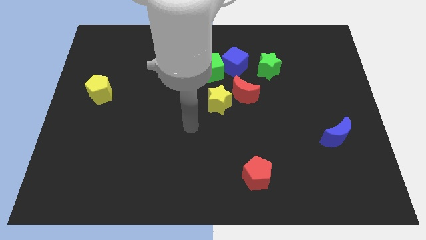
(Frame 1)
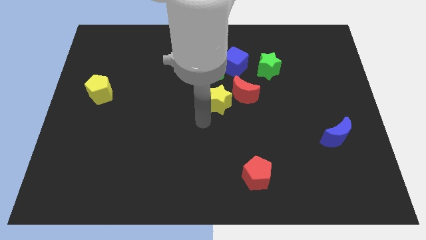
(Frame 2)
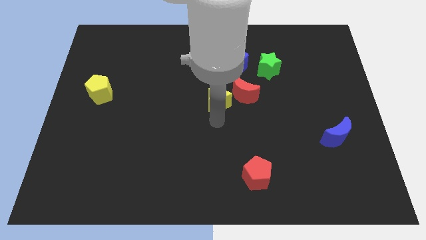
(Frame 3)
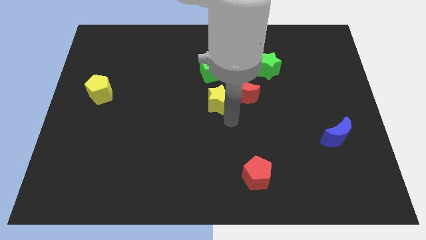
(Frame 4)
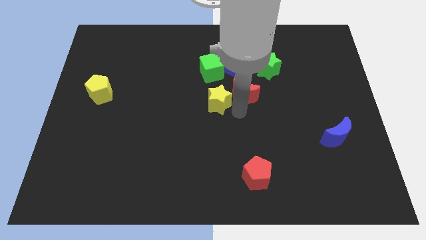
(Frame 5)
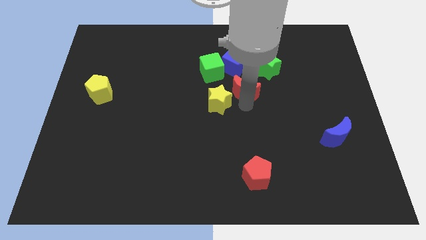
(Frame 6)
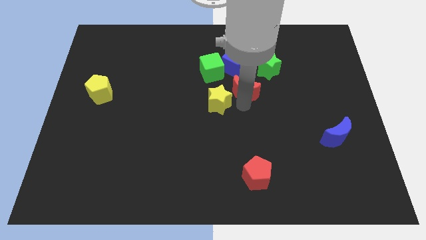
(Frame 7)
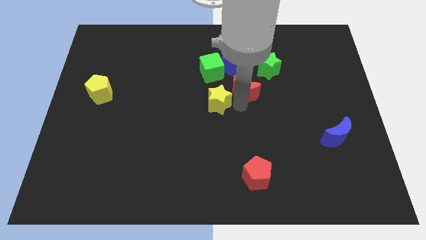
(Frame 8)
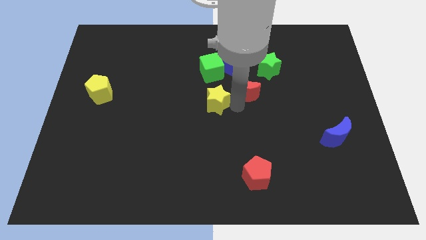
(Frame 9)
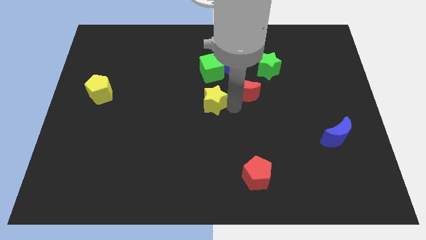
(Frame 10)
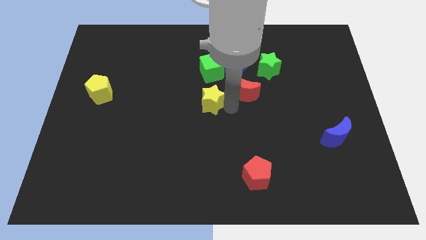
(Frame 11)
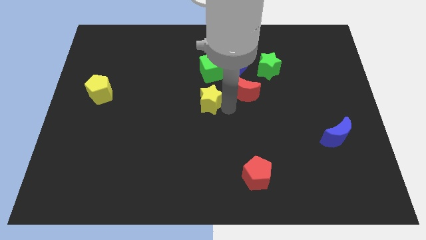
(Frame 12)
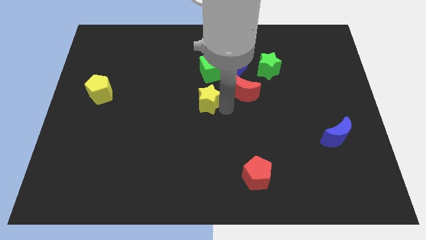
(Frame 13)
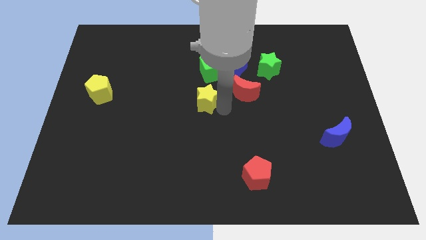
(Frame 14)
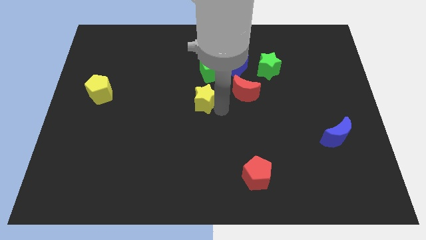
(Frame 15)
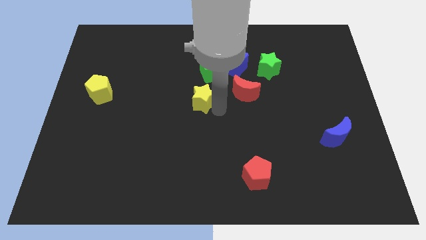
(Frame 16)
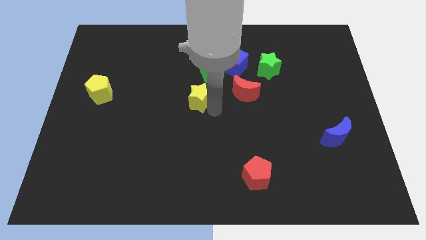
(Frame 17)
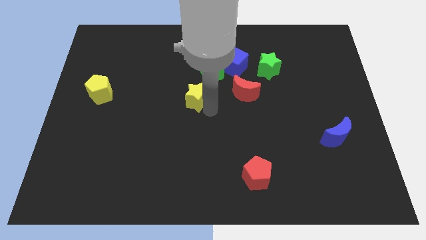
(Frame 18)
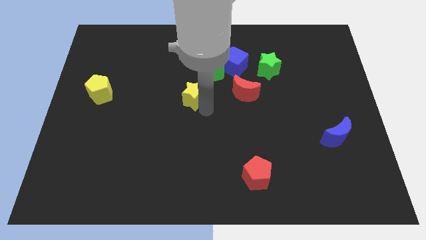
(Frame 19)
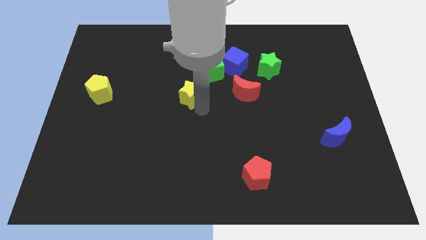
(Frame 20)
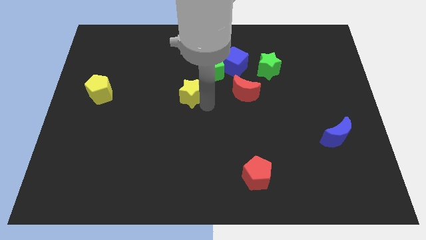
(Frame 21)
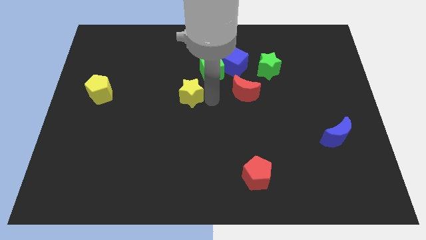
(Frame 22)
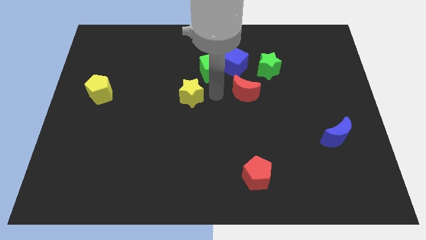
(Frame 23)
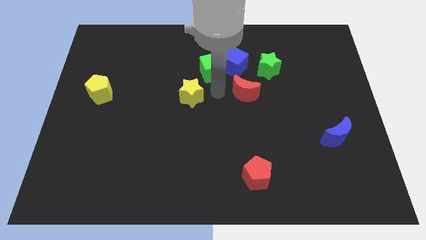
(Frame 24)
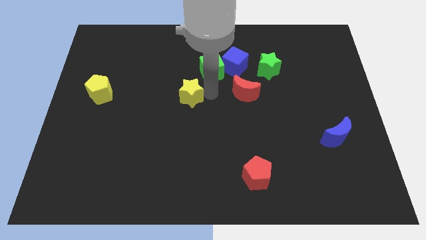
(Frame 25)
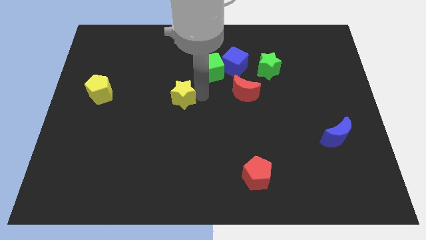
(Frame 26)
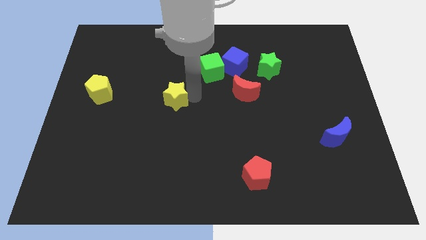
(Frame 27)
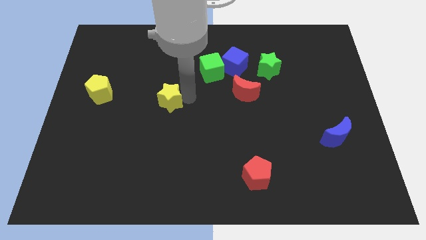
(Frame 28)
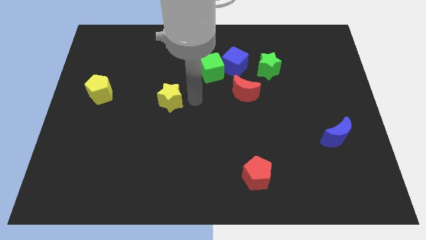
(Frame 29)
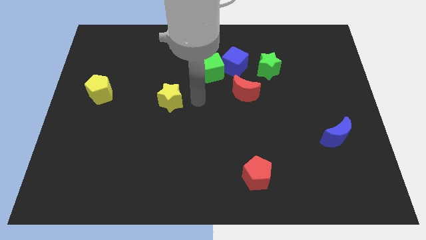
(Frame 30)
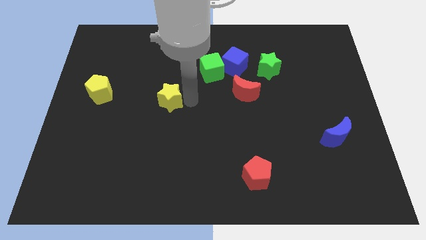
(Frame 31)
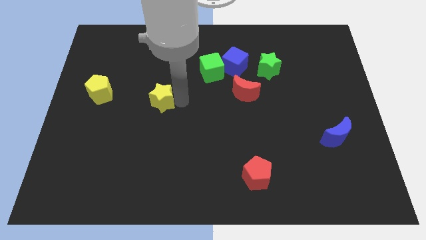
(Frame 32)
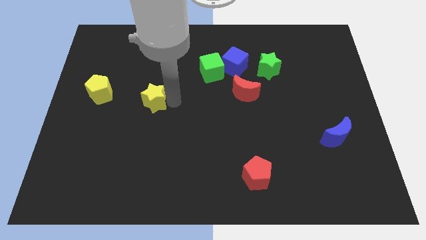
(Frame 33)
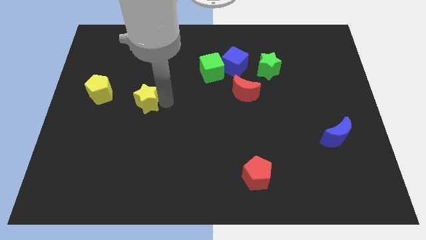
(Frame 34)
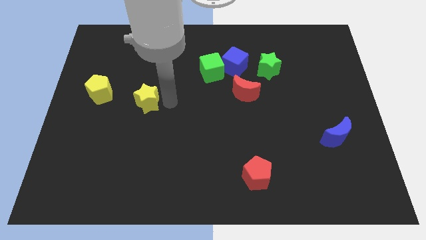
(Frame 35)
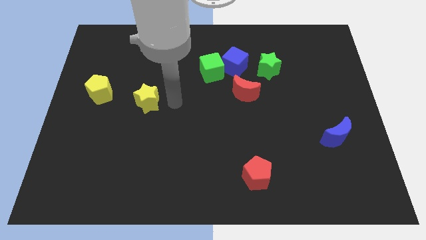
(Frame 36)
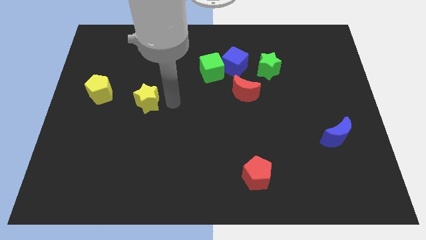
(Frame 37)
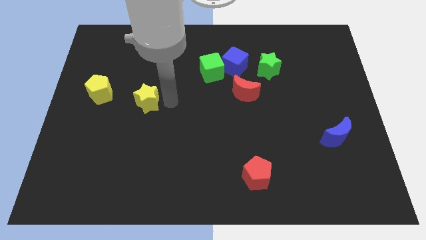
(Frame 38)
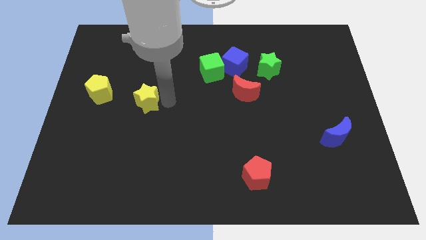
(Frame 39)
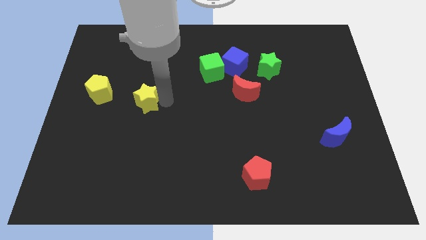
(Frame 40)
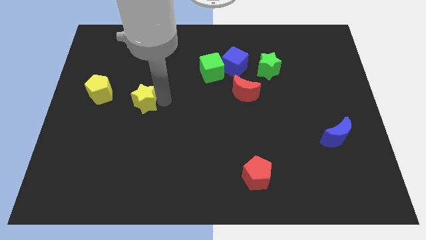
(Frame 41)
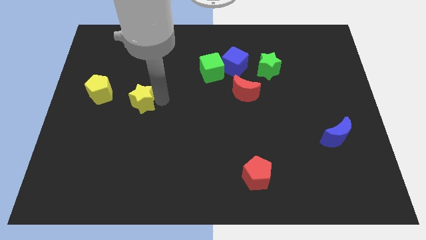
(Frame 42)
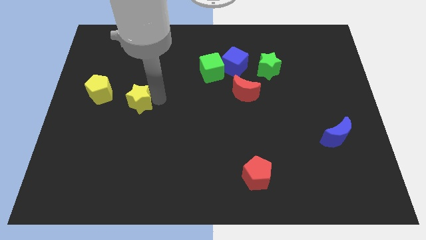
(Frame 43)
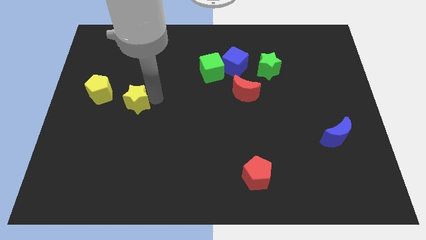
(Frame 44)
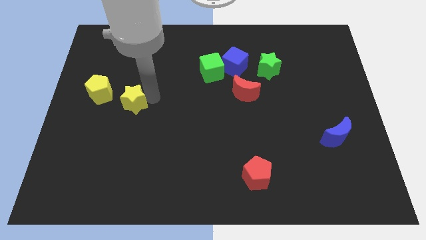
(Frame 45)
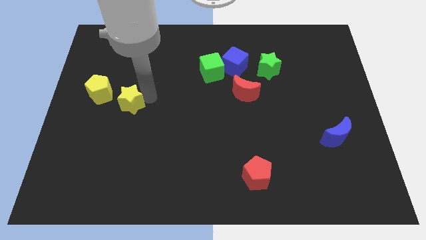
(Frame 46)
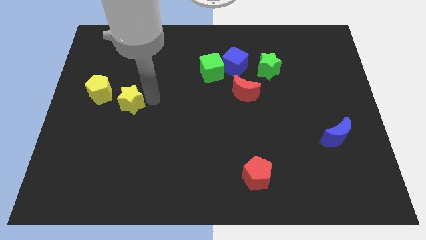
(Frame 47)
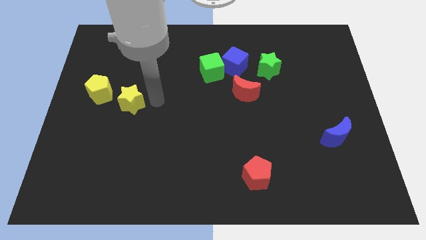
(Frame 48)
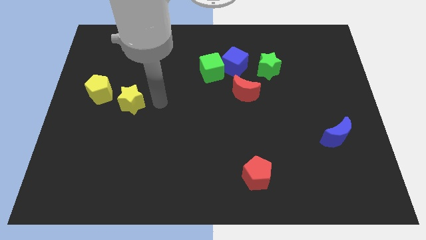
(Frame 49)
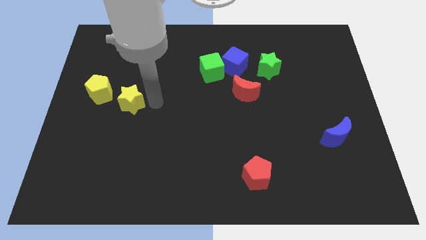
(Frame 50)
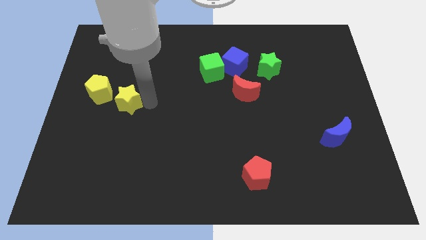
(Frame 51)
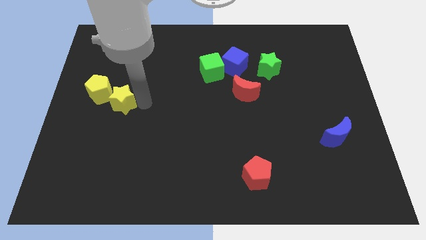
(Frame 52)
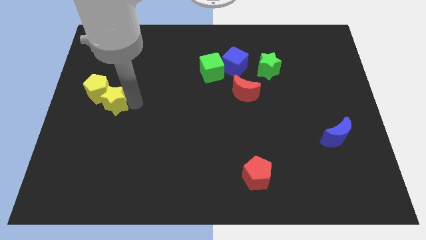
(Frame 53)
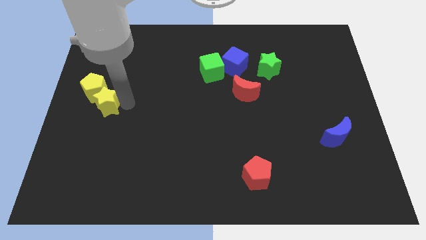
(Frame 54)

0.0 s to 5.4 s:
push the yellow star to the left side of the board

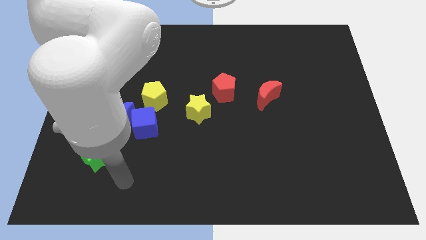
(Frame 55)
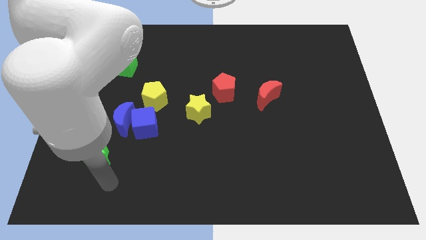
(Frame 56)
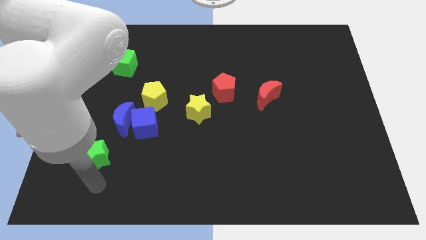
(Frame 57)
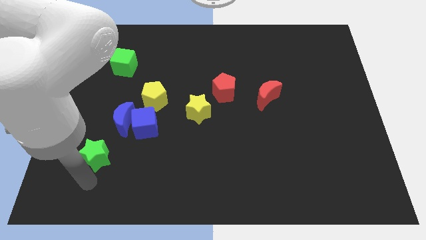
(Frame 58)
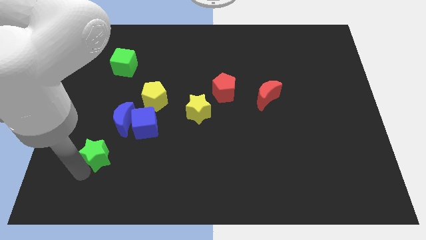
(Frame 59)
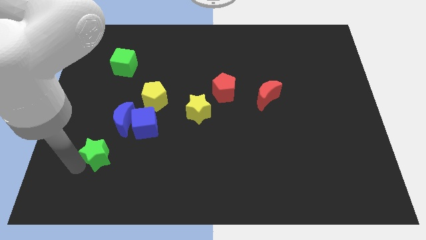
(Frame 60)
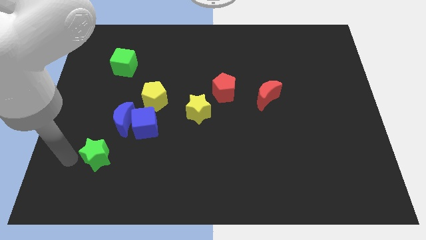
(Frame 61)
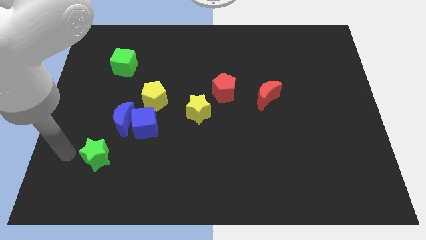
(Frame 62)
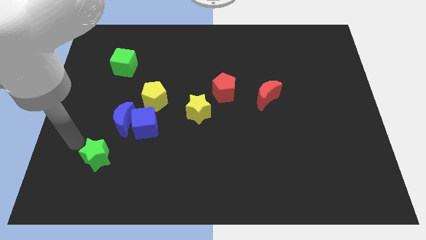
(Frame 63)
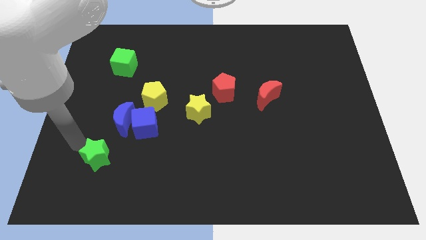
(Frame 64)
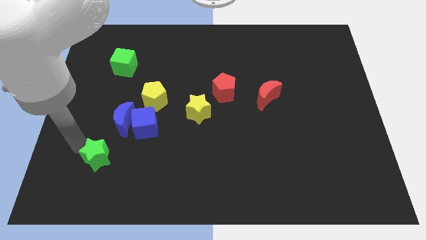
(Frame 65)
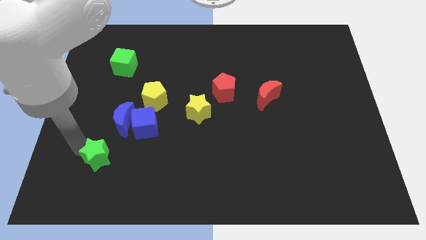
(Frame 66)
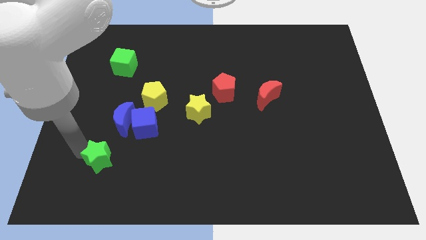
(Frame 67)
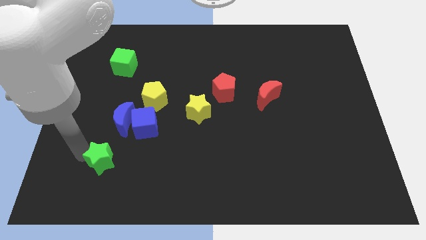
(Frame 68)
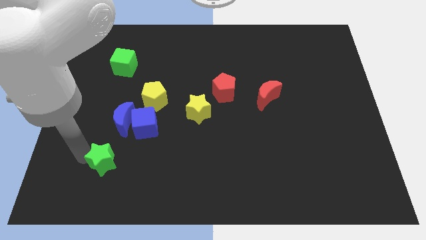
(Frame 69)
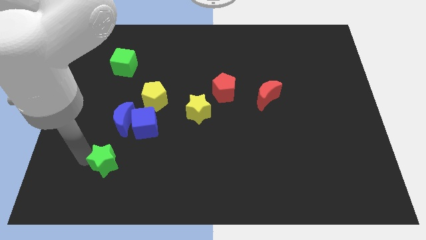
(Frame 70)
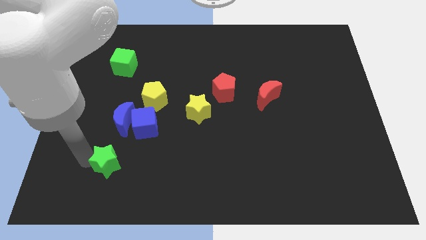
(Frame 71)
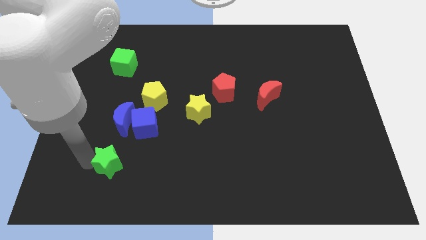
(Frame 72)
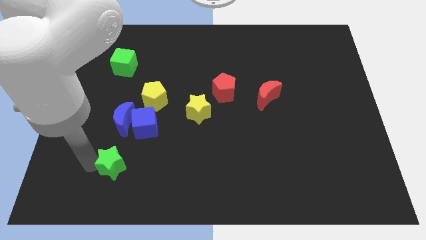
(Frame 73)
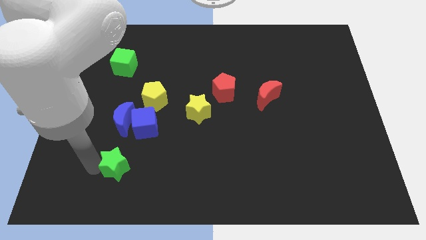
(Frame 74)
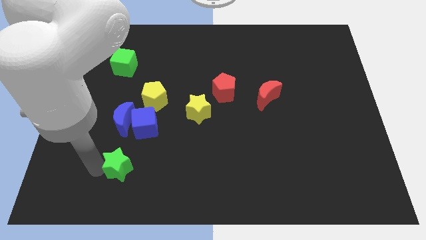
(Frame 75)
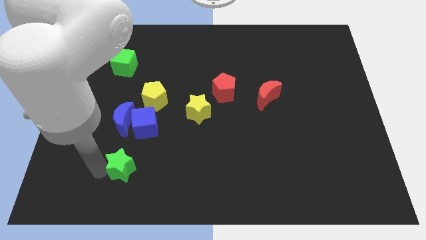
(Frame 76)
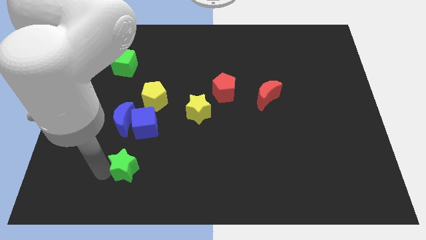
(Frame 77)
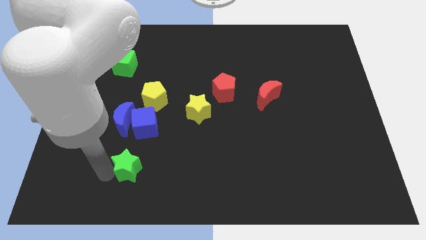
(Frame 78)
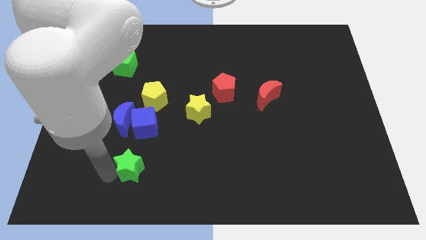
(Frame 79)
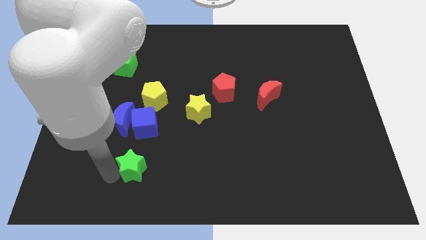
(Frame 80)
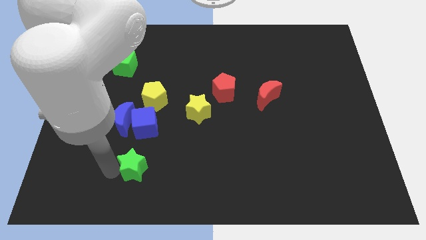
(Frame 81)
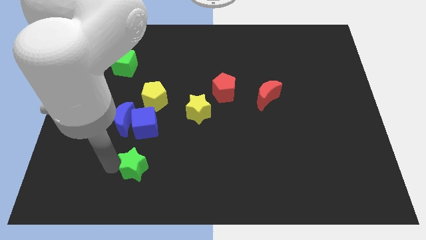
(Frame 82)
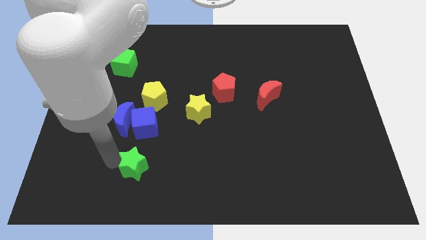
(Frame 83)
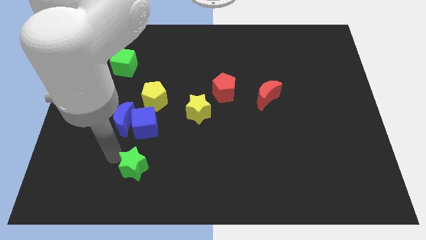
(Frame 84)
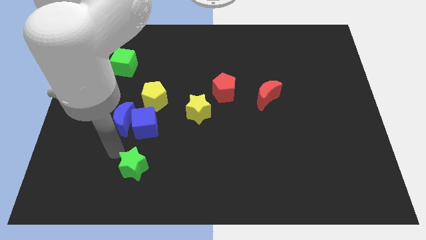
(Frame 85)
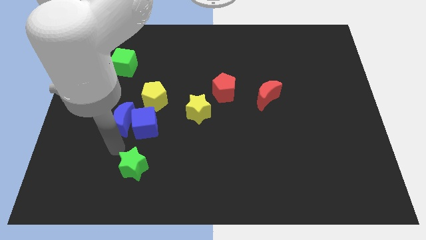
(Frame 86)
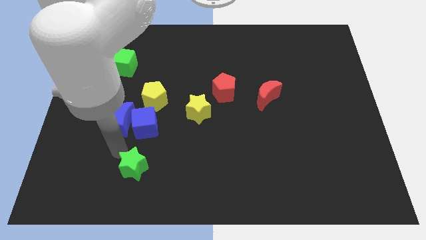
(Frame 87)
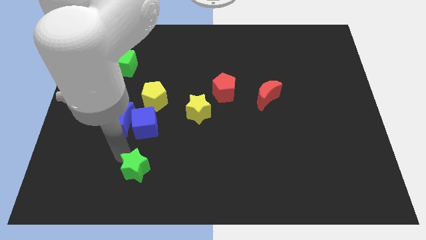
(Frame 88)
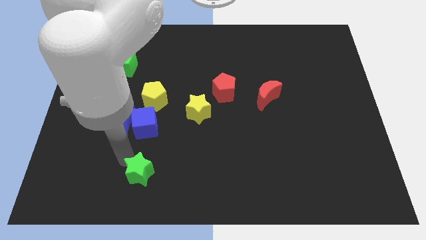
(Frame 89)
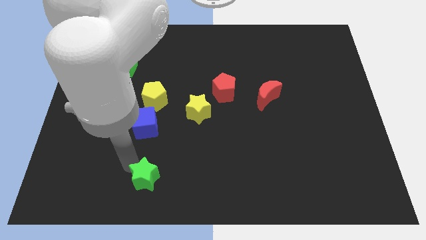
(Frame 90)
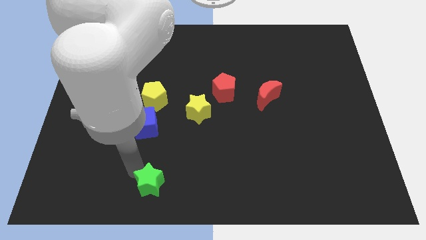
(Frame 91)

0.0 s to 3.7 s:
slide the green star to the bottom
